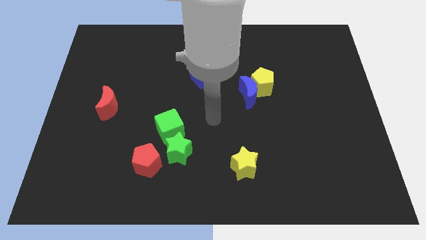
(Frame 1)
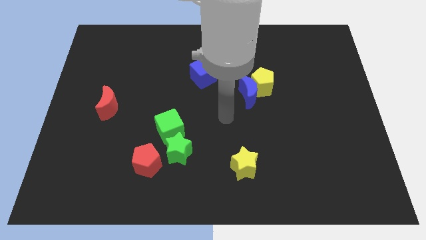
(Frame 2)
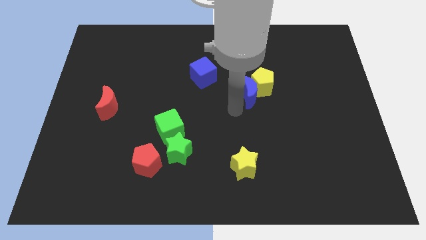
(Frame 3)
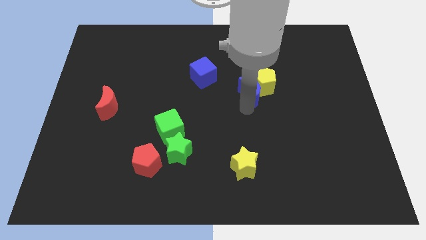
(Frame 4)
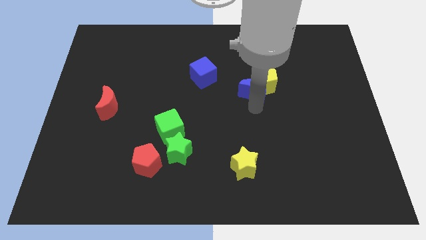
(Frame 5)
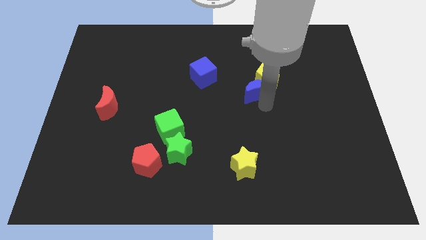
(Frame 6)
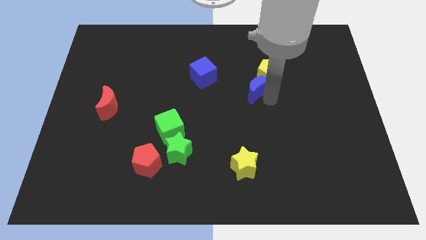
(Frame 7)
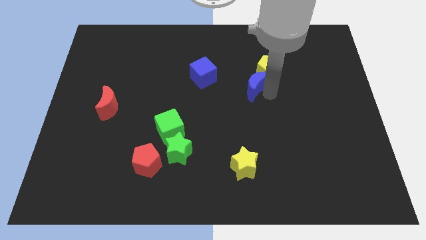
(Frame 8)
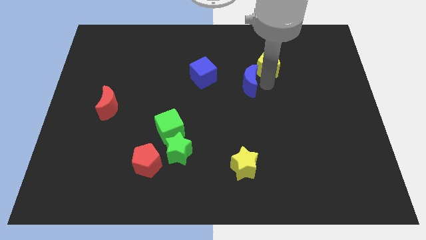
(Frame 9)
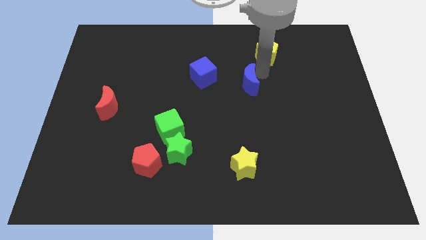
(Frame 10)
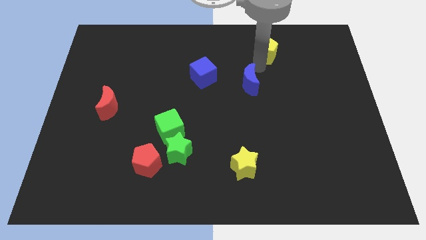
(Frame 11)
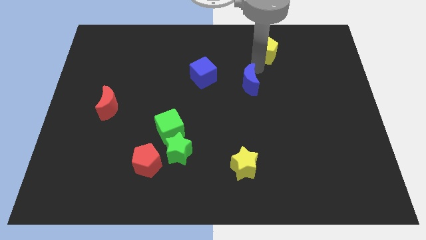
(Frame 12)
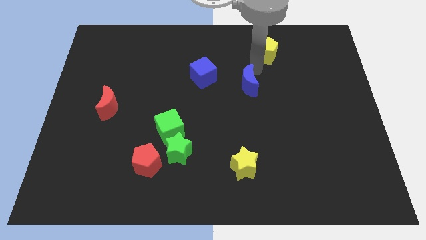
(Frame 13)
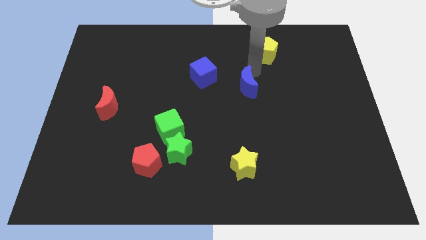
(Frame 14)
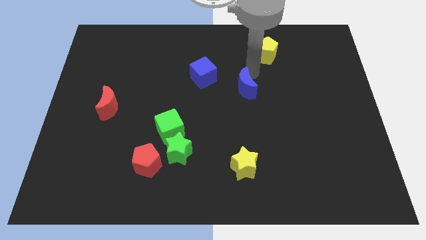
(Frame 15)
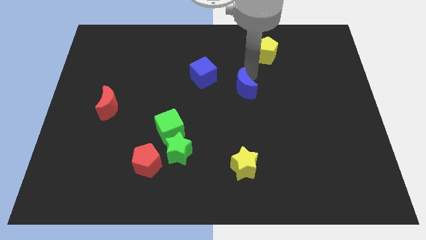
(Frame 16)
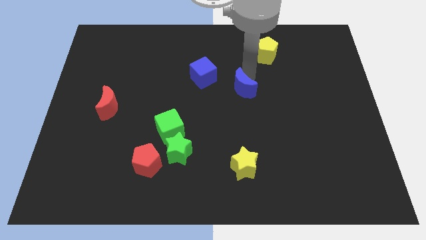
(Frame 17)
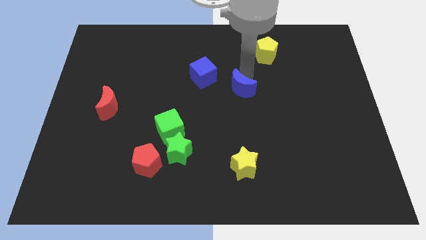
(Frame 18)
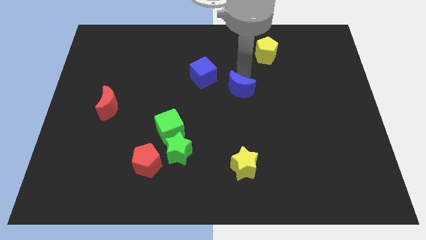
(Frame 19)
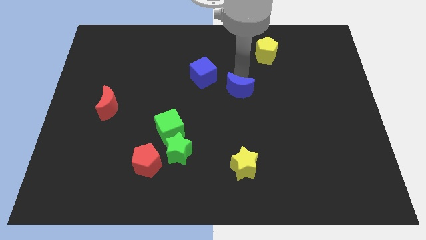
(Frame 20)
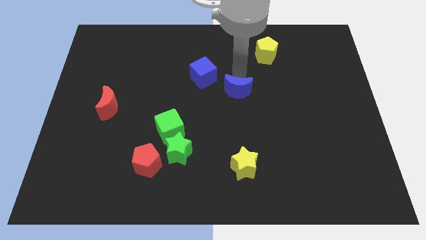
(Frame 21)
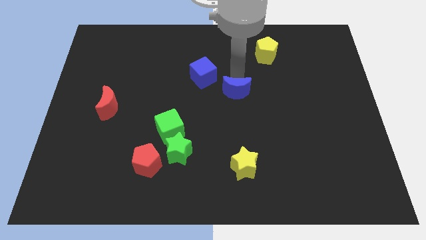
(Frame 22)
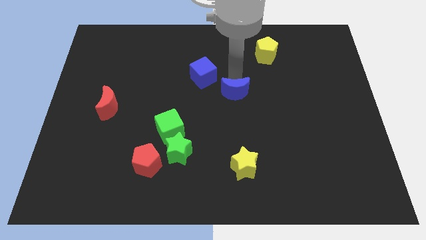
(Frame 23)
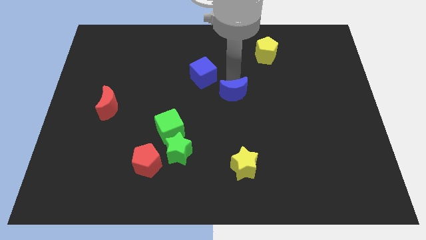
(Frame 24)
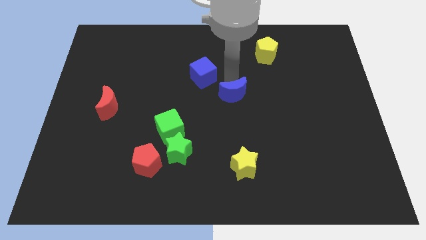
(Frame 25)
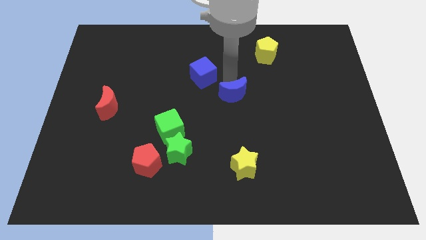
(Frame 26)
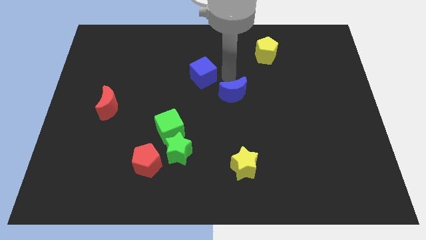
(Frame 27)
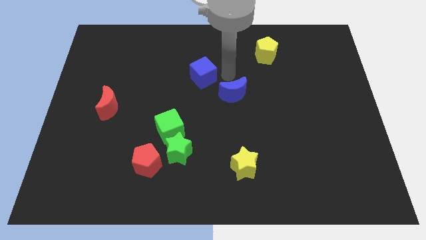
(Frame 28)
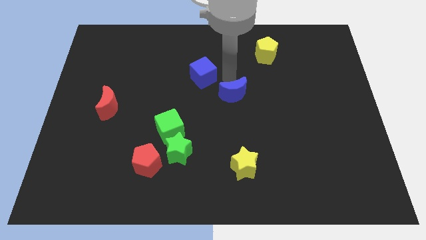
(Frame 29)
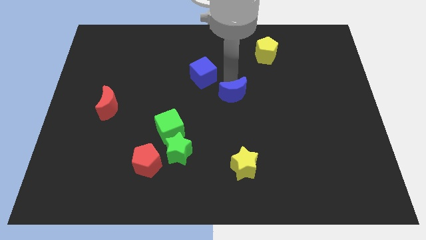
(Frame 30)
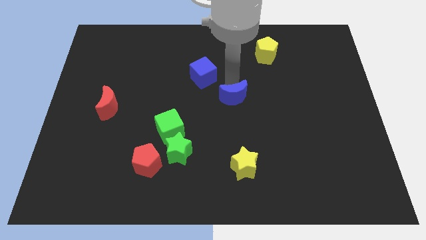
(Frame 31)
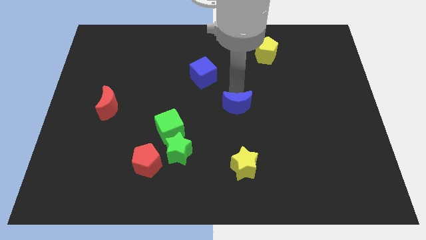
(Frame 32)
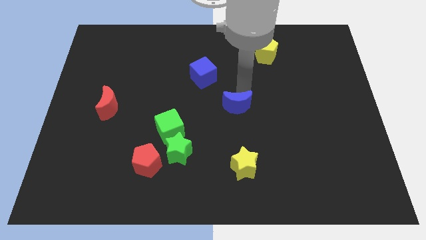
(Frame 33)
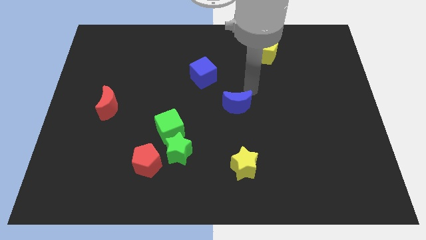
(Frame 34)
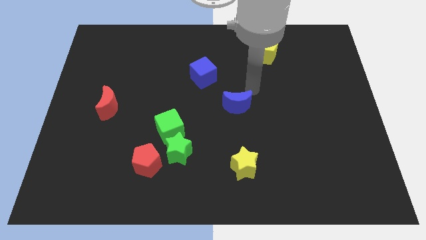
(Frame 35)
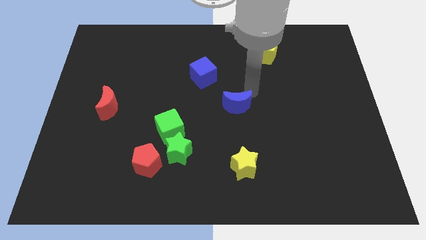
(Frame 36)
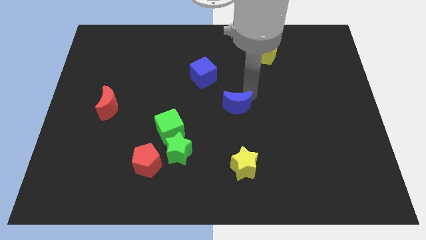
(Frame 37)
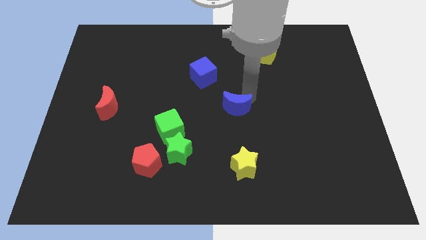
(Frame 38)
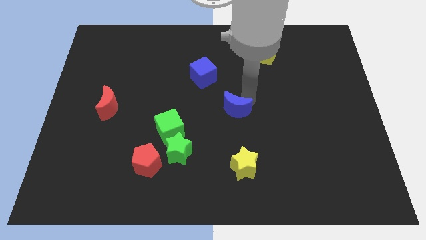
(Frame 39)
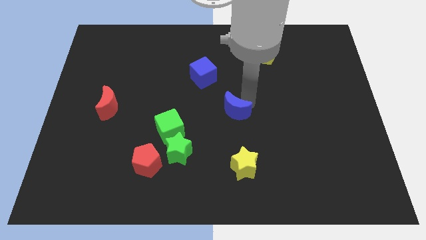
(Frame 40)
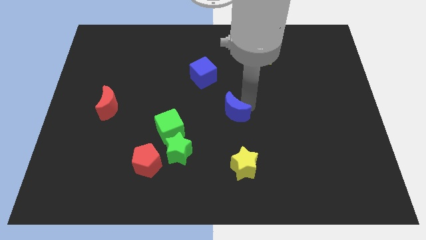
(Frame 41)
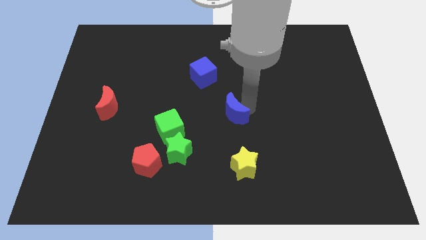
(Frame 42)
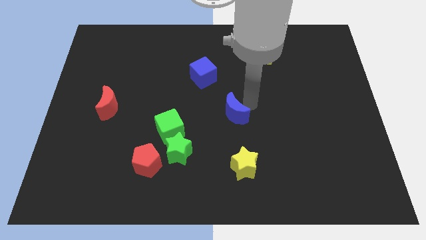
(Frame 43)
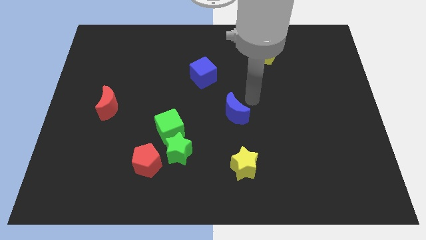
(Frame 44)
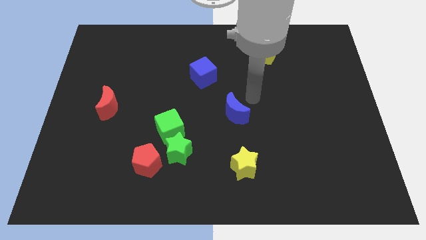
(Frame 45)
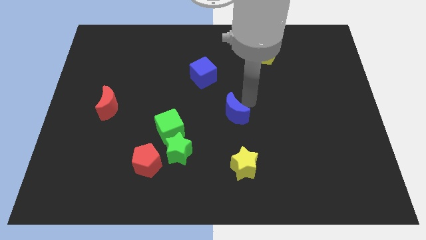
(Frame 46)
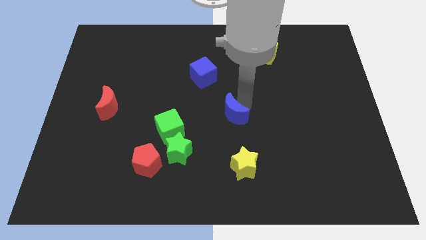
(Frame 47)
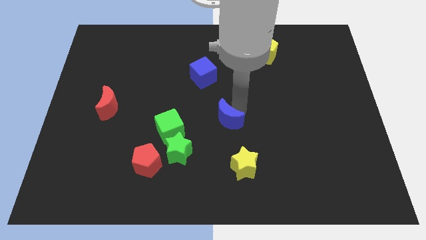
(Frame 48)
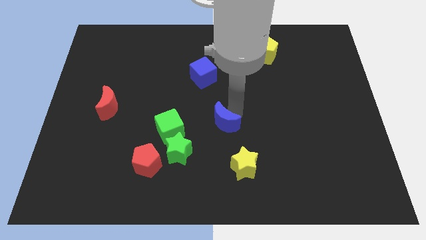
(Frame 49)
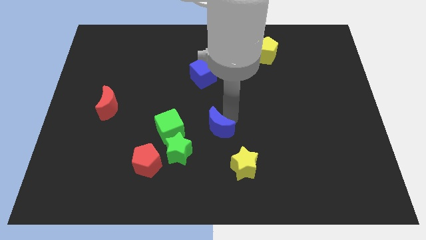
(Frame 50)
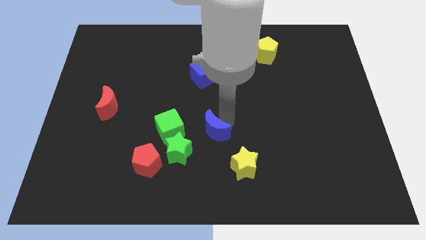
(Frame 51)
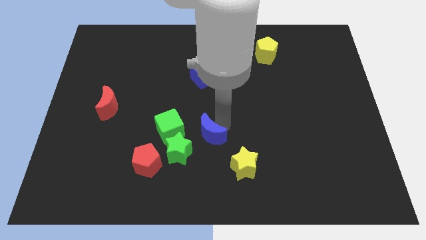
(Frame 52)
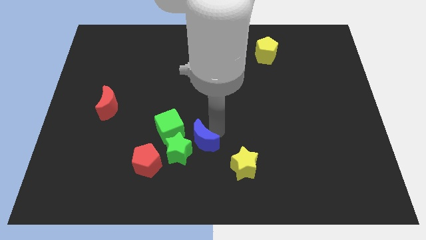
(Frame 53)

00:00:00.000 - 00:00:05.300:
move the blue moon close to the green star

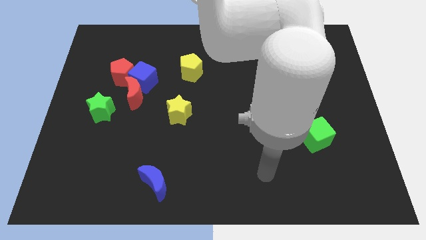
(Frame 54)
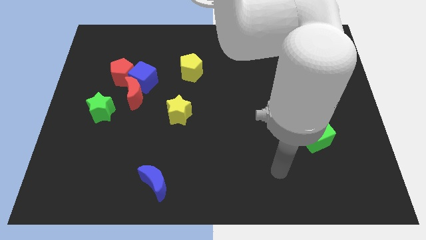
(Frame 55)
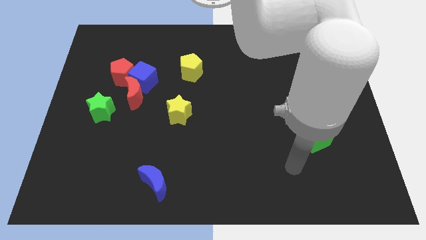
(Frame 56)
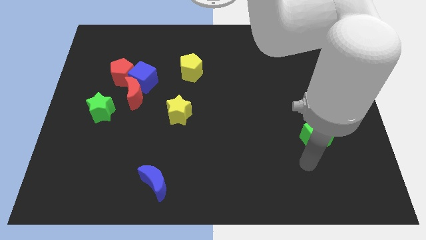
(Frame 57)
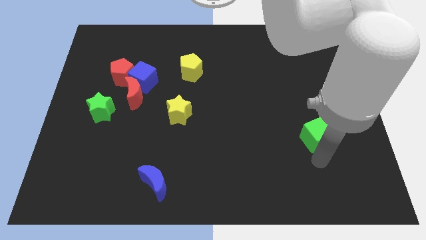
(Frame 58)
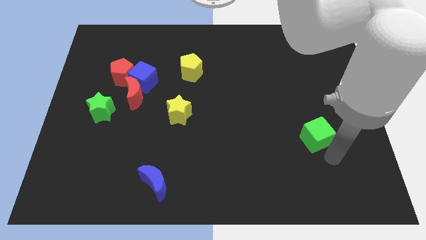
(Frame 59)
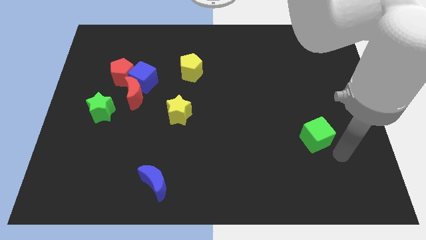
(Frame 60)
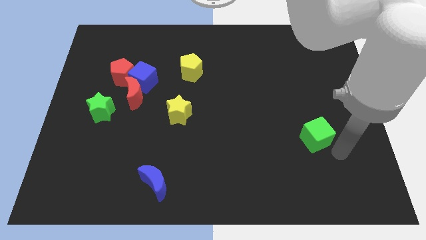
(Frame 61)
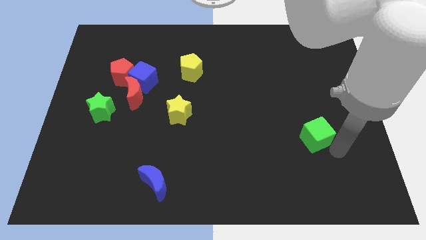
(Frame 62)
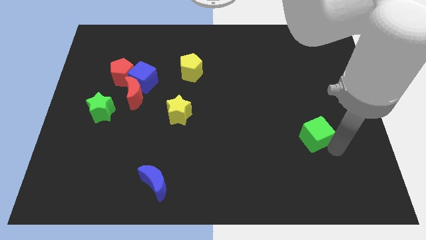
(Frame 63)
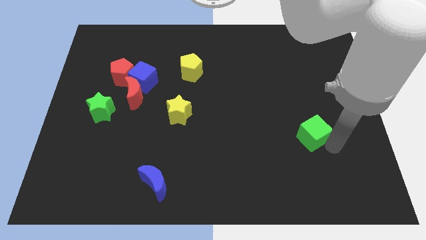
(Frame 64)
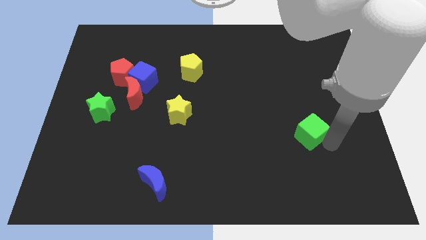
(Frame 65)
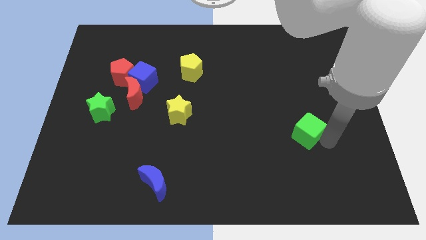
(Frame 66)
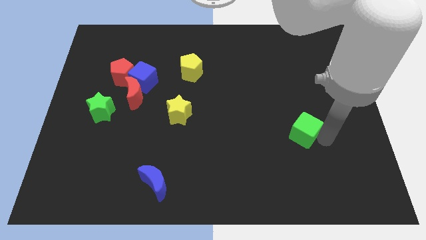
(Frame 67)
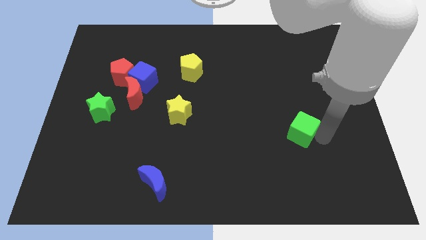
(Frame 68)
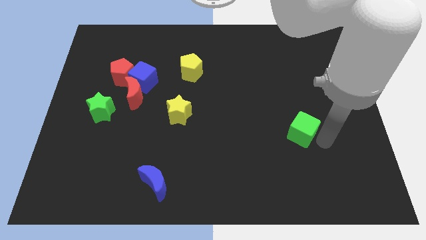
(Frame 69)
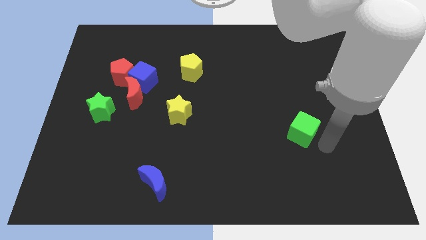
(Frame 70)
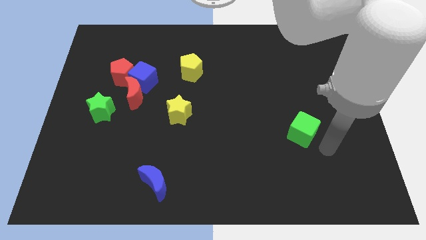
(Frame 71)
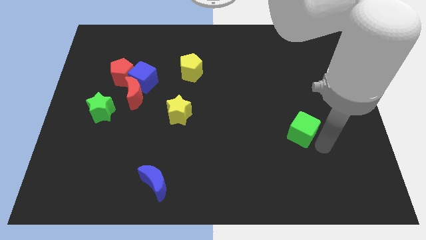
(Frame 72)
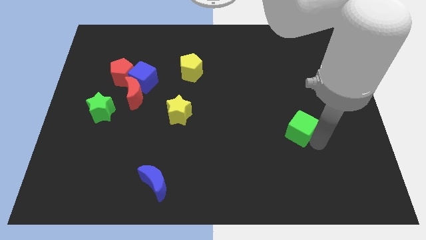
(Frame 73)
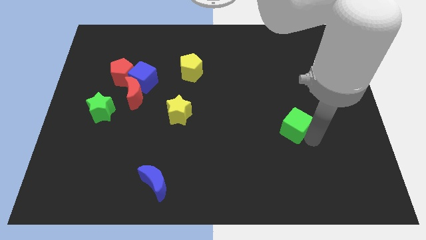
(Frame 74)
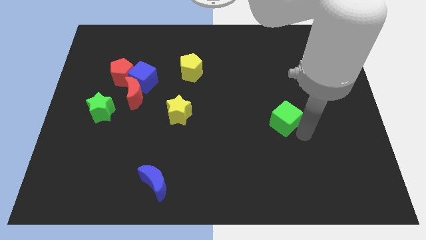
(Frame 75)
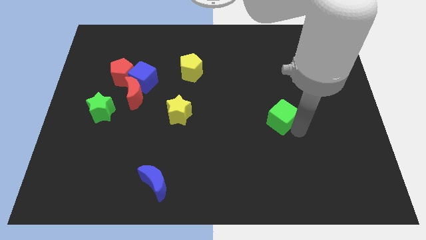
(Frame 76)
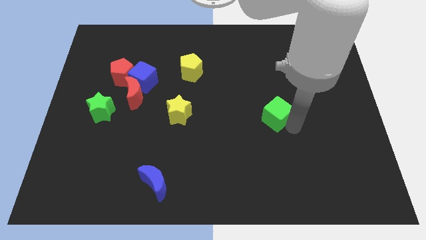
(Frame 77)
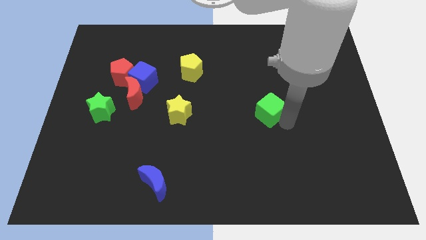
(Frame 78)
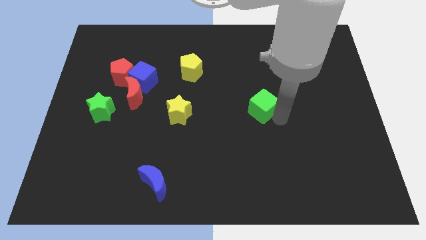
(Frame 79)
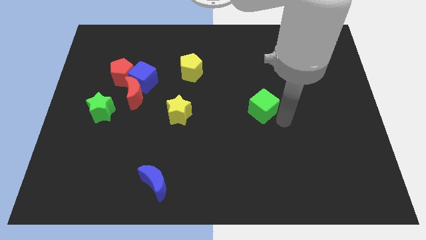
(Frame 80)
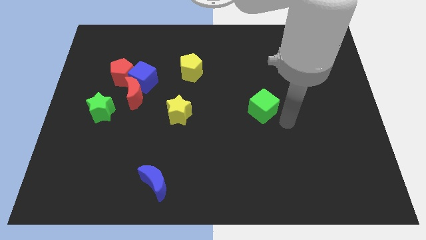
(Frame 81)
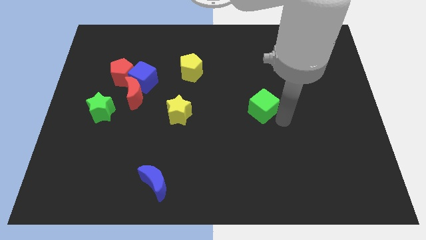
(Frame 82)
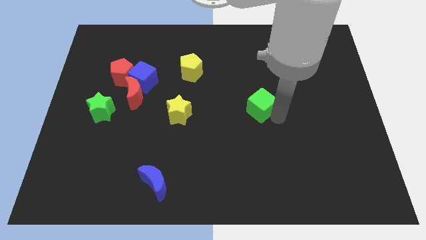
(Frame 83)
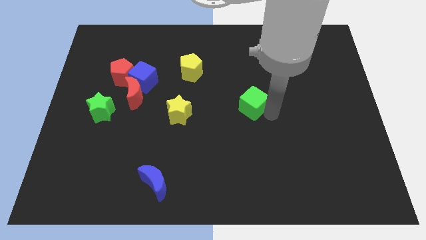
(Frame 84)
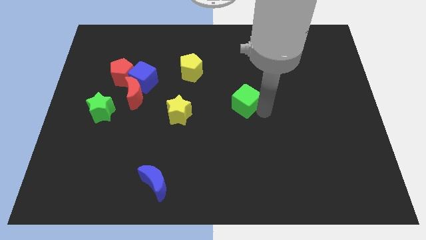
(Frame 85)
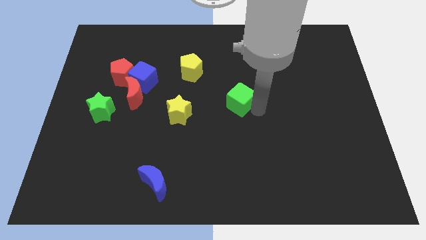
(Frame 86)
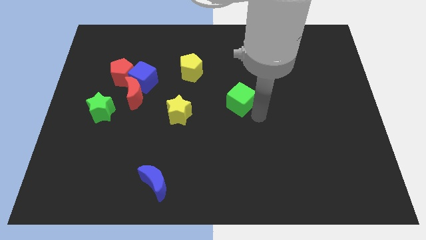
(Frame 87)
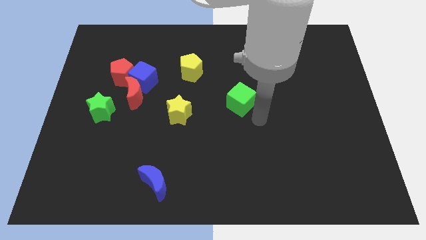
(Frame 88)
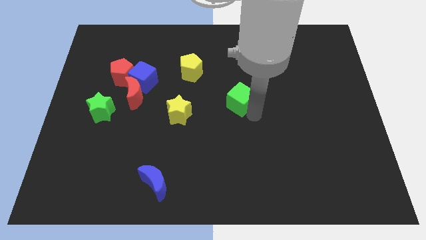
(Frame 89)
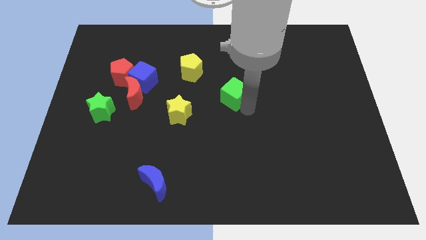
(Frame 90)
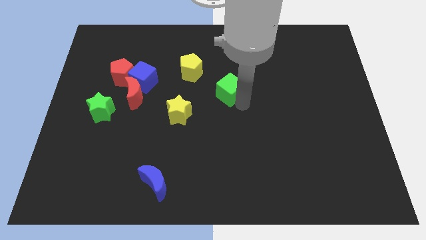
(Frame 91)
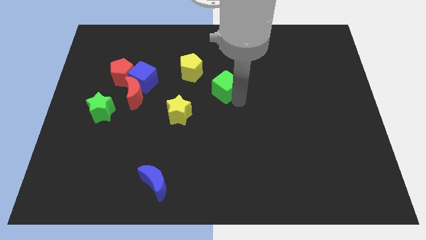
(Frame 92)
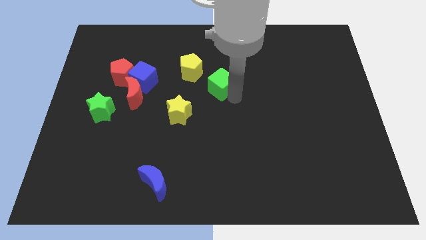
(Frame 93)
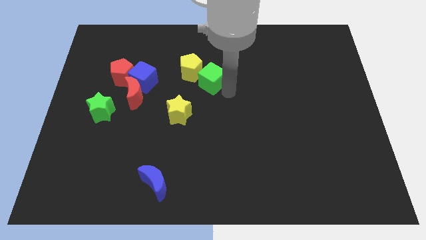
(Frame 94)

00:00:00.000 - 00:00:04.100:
move the green cube towards the yellow pentagon
